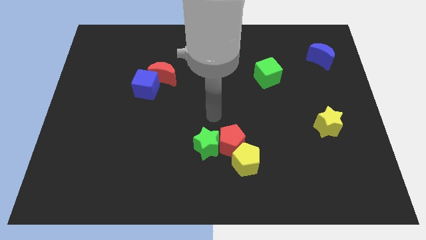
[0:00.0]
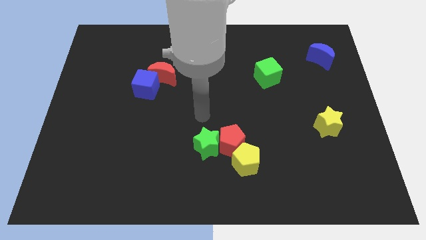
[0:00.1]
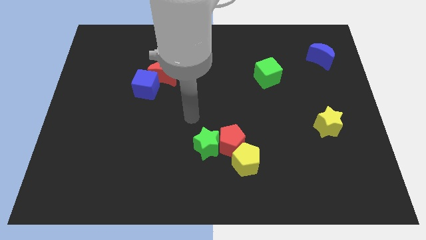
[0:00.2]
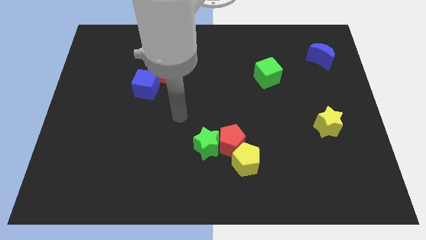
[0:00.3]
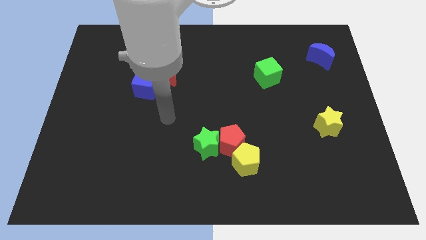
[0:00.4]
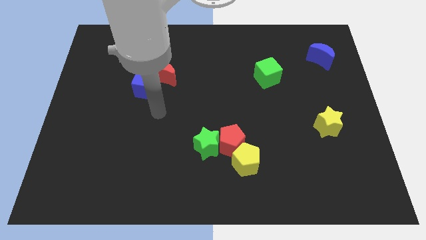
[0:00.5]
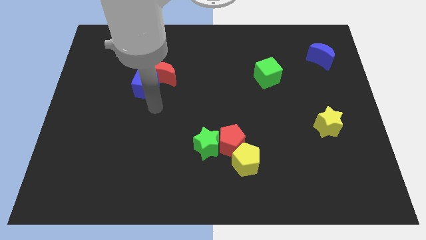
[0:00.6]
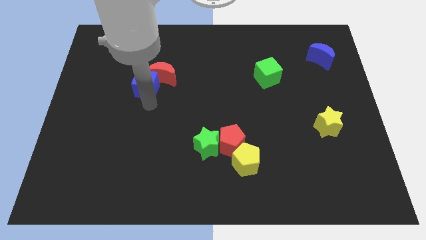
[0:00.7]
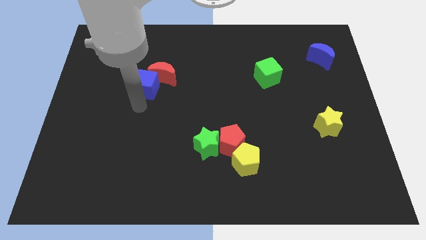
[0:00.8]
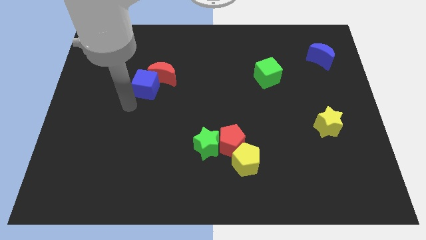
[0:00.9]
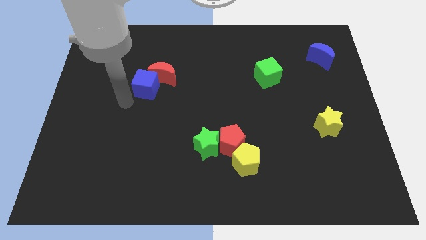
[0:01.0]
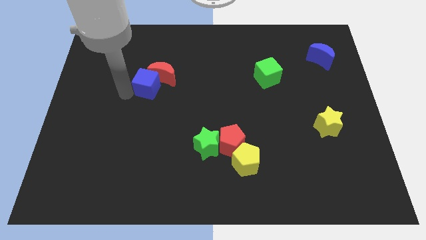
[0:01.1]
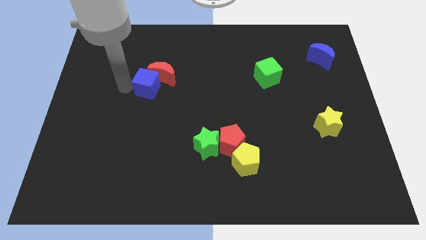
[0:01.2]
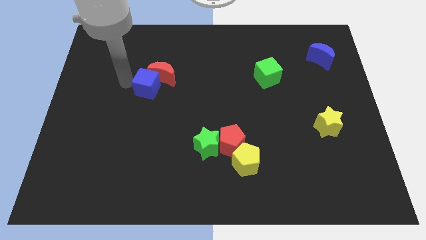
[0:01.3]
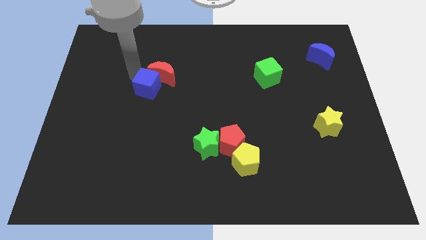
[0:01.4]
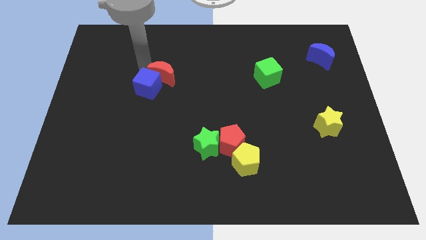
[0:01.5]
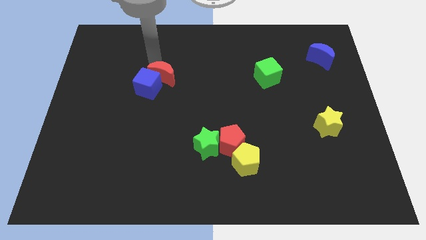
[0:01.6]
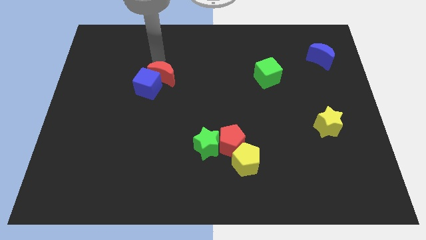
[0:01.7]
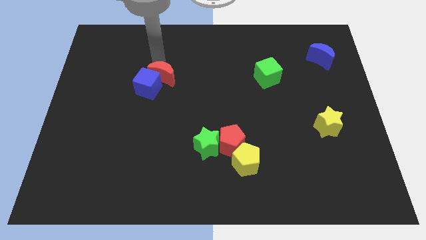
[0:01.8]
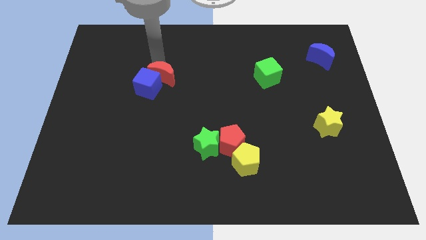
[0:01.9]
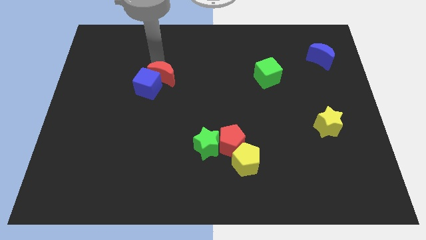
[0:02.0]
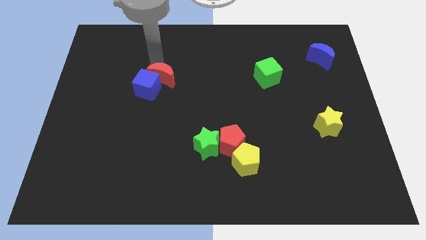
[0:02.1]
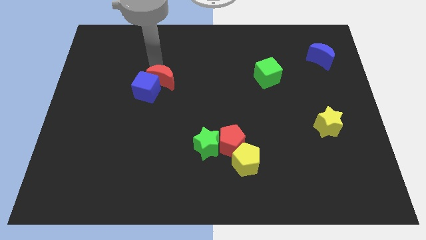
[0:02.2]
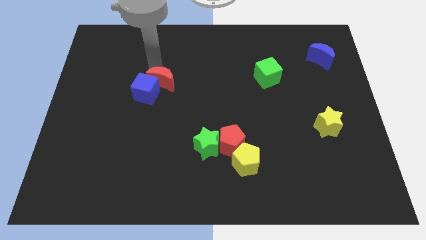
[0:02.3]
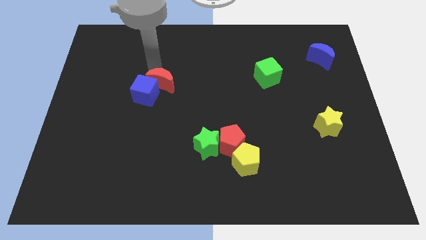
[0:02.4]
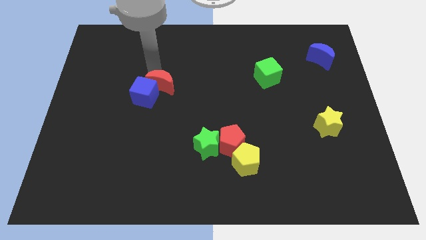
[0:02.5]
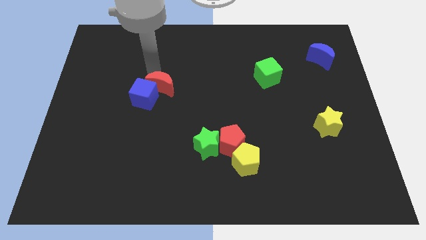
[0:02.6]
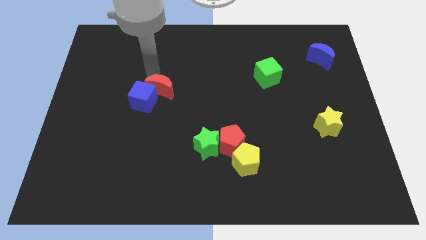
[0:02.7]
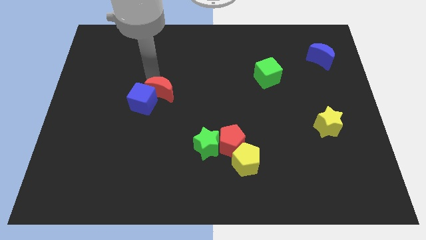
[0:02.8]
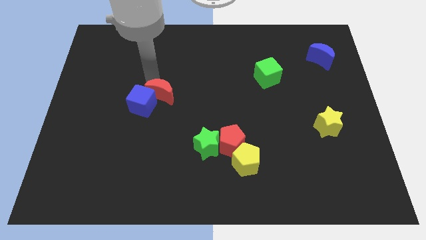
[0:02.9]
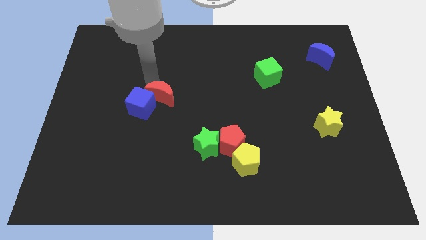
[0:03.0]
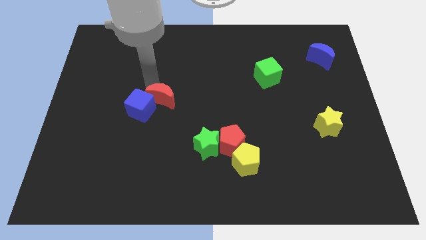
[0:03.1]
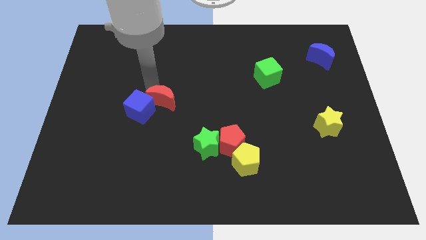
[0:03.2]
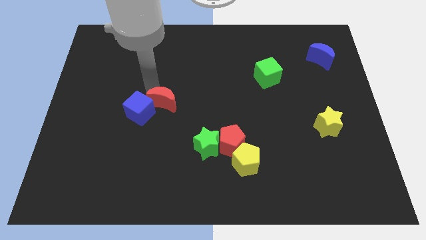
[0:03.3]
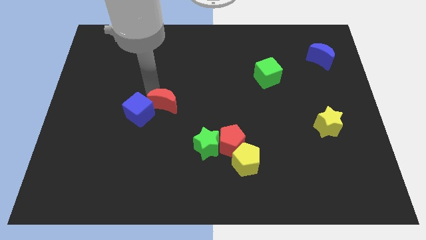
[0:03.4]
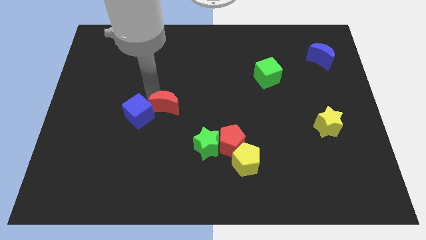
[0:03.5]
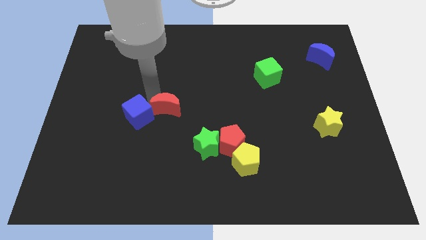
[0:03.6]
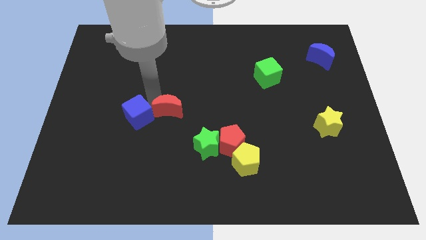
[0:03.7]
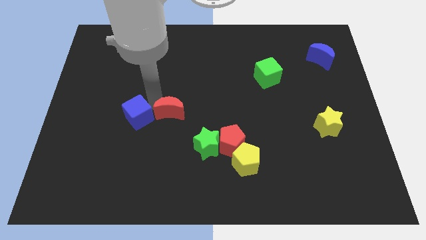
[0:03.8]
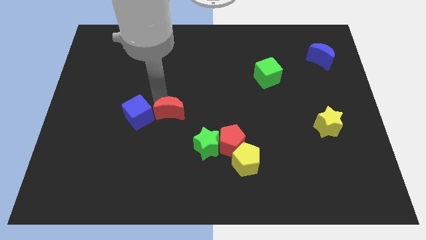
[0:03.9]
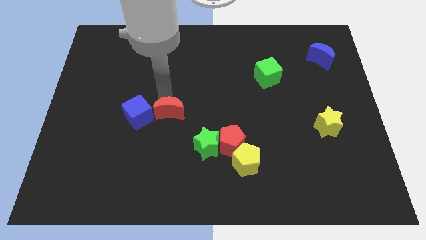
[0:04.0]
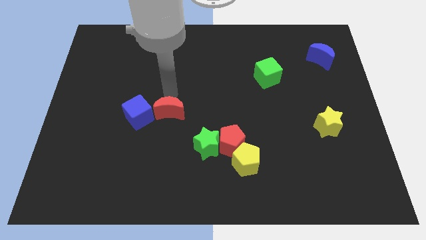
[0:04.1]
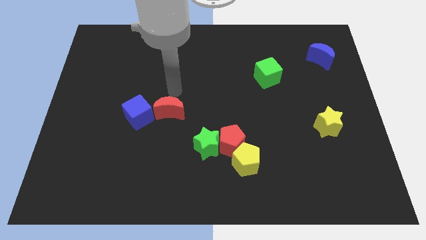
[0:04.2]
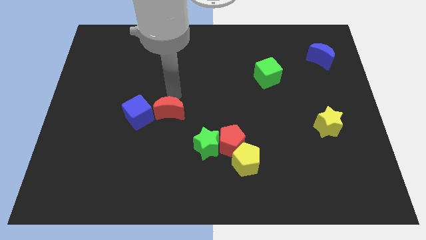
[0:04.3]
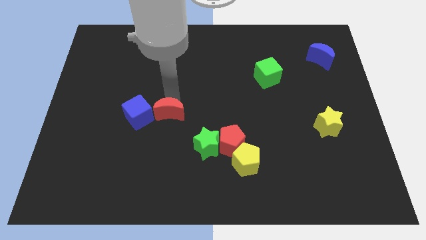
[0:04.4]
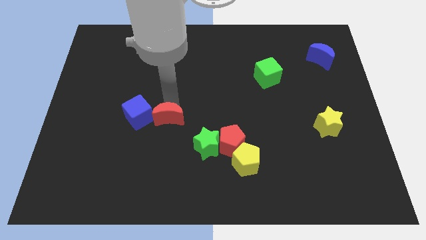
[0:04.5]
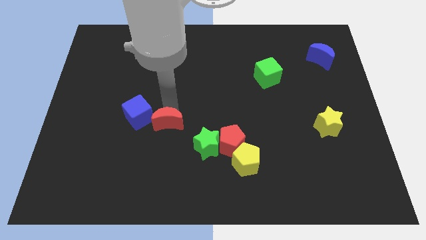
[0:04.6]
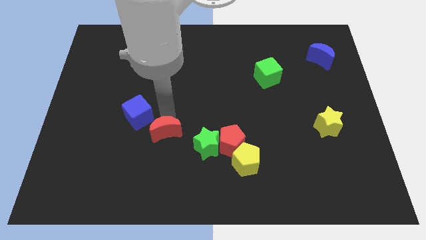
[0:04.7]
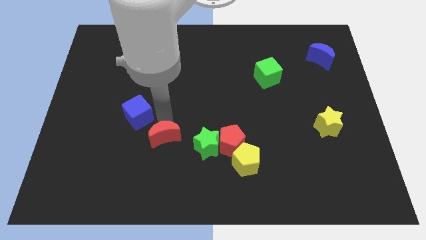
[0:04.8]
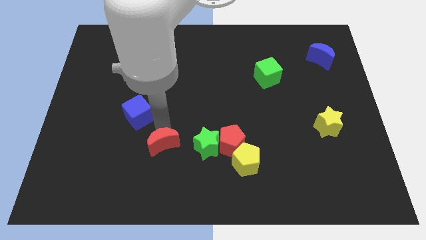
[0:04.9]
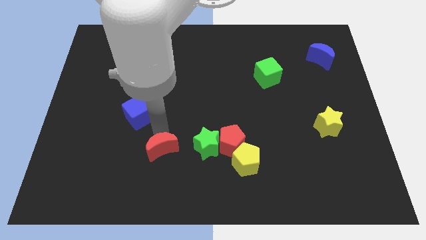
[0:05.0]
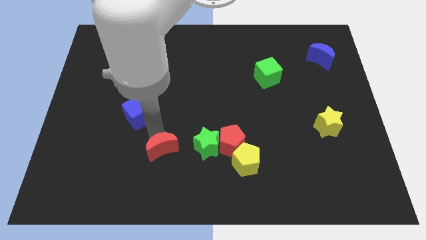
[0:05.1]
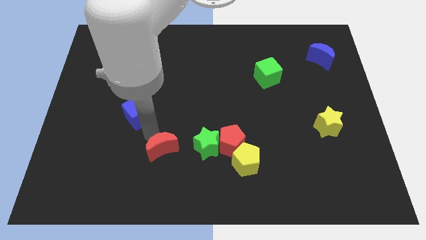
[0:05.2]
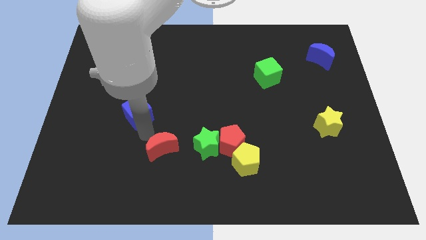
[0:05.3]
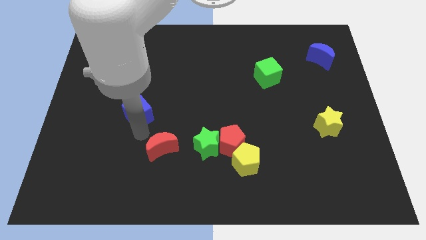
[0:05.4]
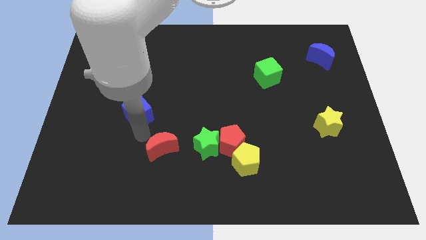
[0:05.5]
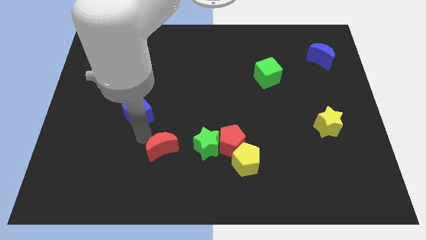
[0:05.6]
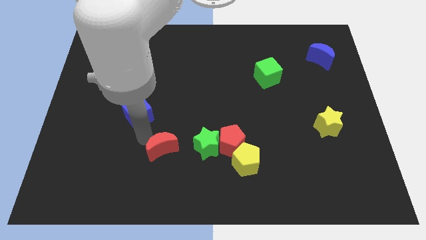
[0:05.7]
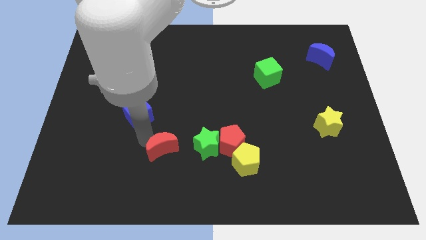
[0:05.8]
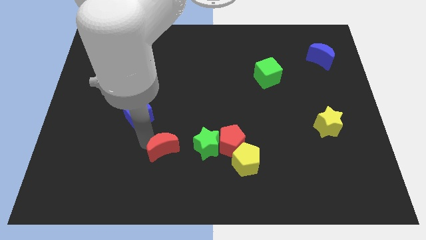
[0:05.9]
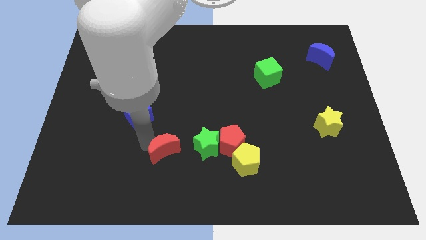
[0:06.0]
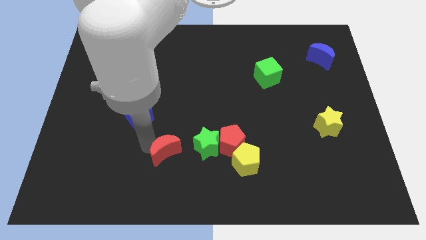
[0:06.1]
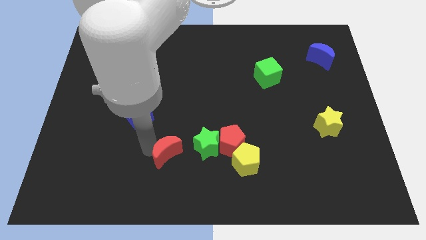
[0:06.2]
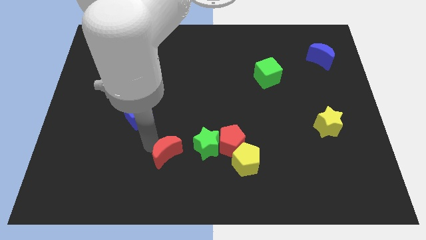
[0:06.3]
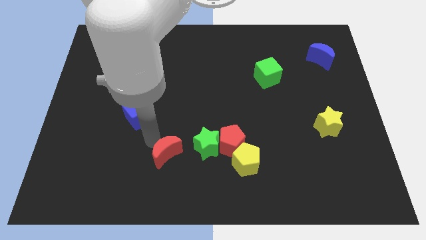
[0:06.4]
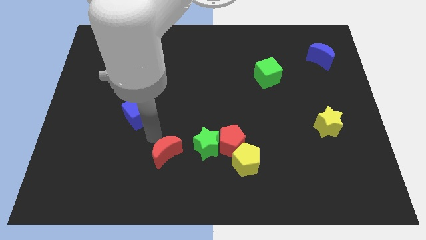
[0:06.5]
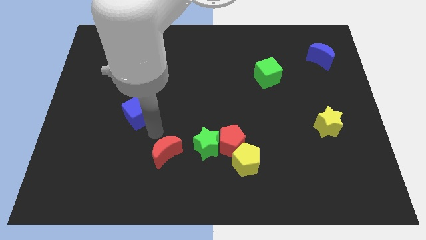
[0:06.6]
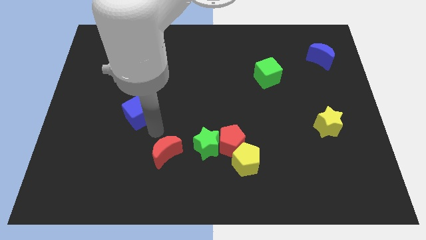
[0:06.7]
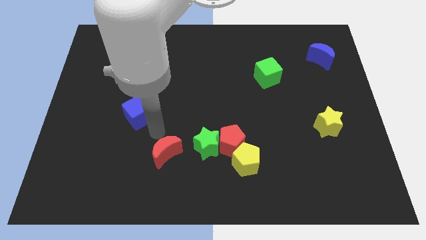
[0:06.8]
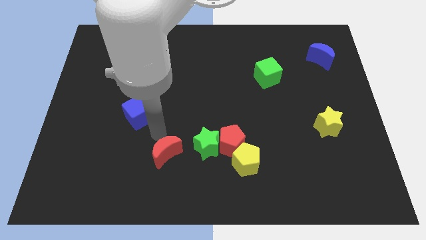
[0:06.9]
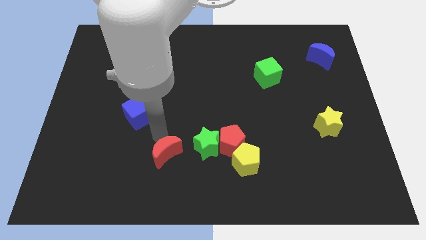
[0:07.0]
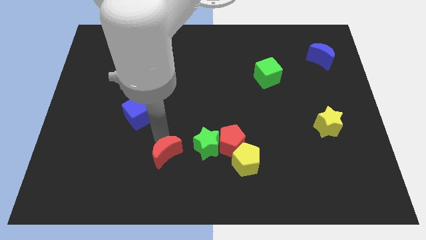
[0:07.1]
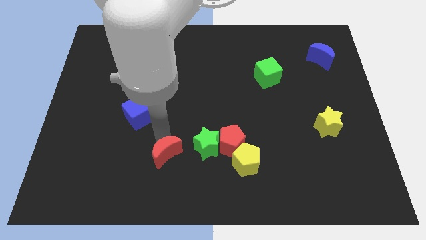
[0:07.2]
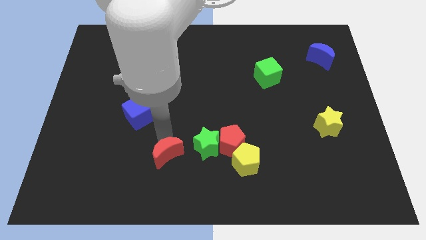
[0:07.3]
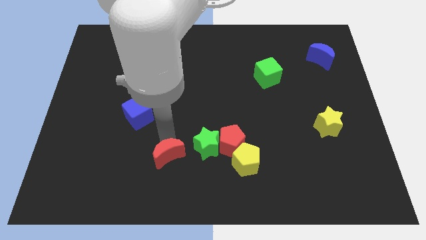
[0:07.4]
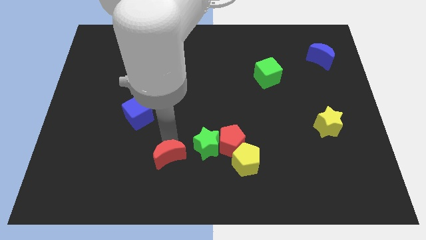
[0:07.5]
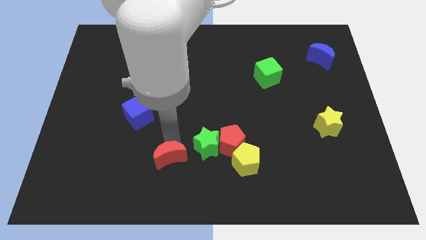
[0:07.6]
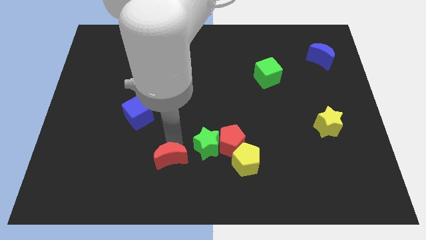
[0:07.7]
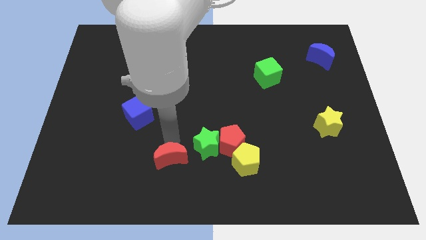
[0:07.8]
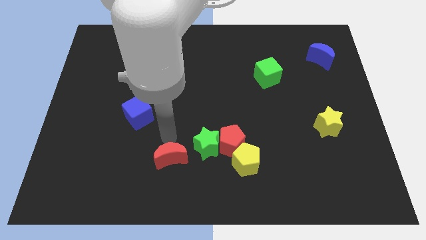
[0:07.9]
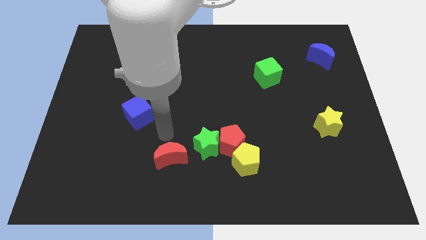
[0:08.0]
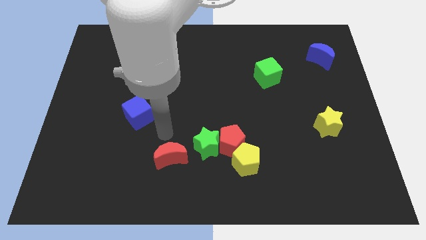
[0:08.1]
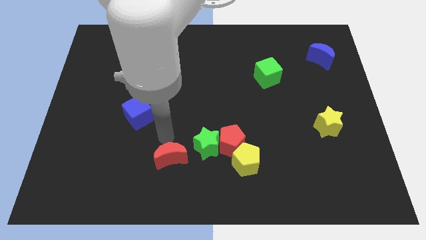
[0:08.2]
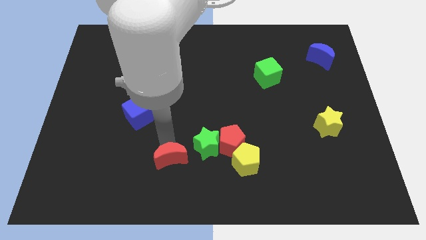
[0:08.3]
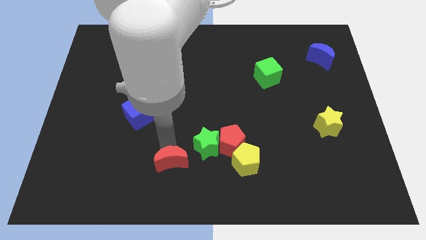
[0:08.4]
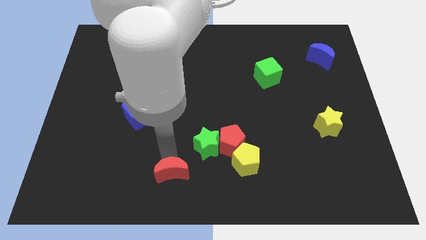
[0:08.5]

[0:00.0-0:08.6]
push the red moon to the bottom side
